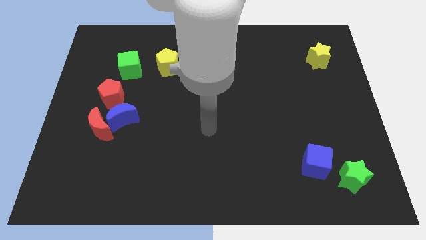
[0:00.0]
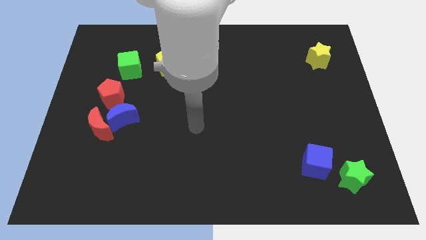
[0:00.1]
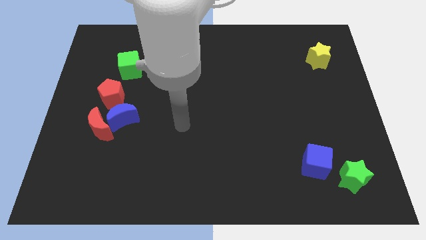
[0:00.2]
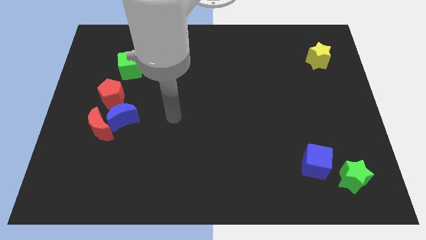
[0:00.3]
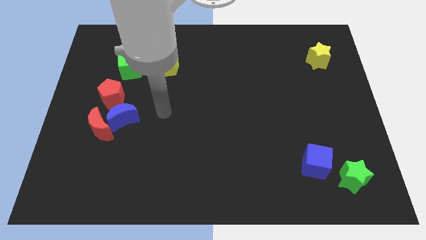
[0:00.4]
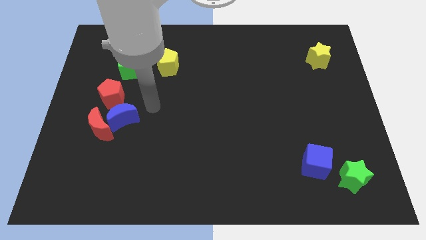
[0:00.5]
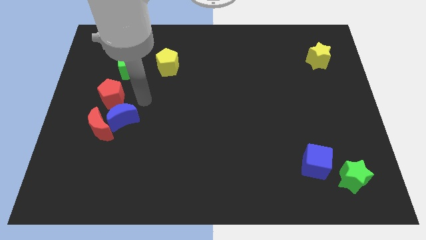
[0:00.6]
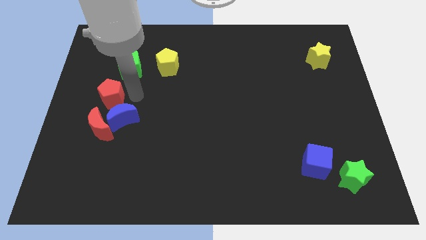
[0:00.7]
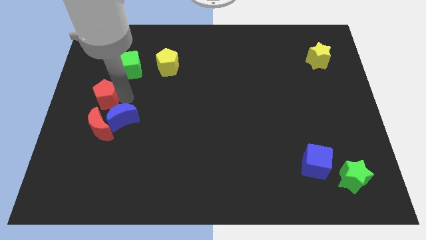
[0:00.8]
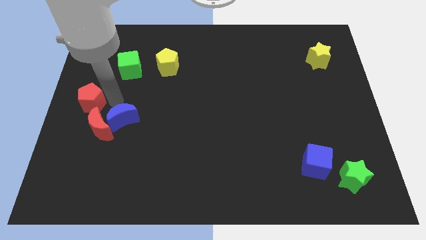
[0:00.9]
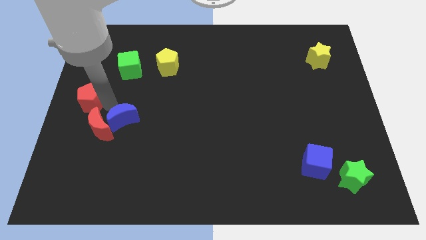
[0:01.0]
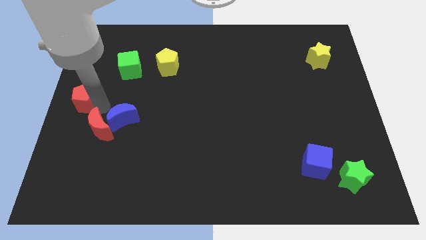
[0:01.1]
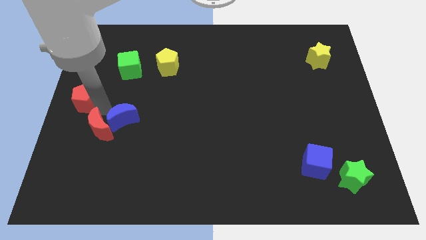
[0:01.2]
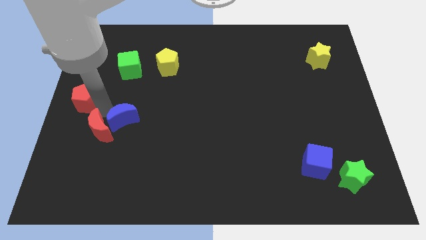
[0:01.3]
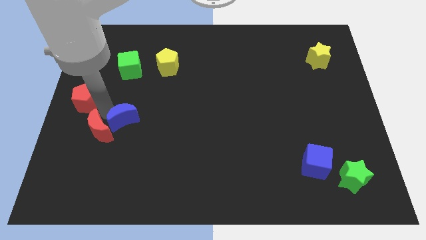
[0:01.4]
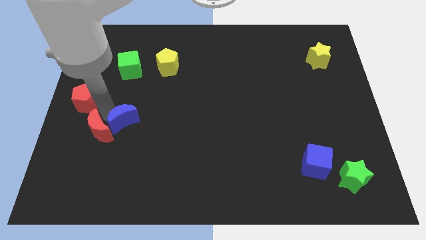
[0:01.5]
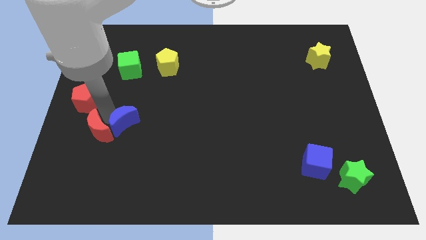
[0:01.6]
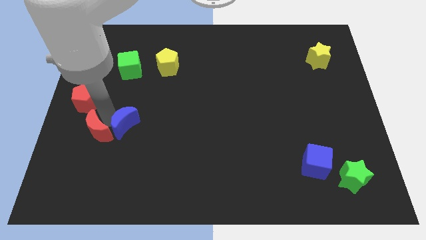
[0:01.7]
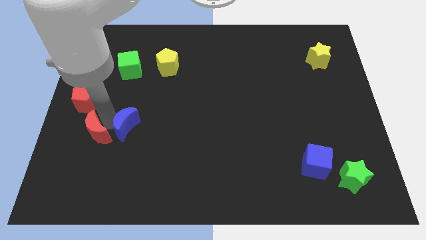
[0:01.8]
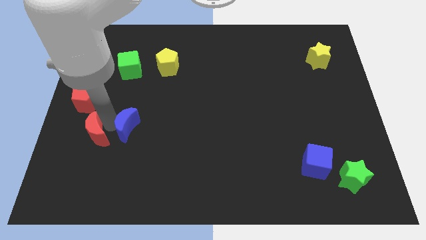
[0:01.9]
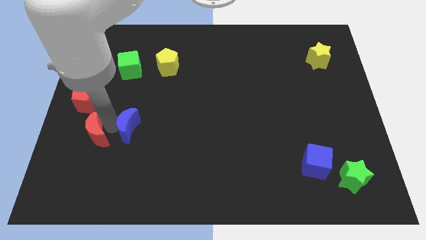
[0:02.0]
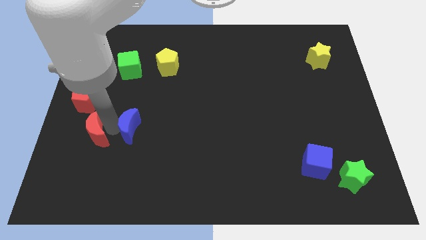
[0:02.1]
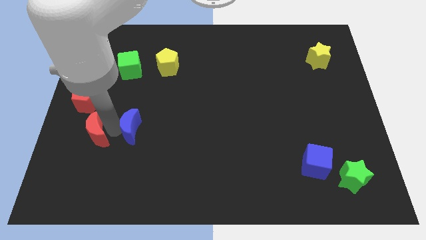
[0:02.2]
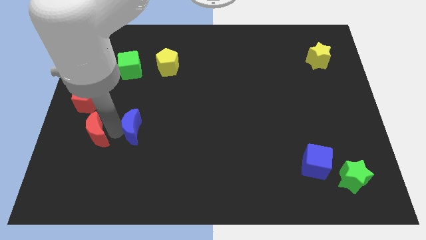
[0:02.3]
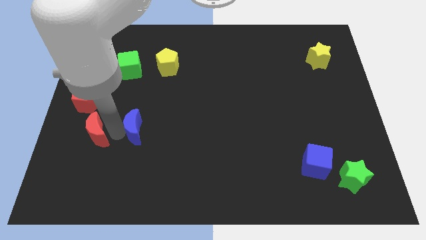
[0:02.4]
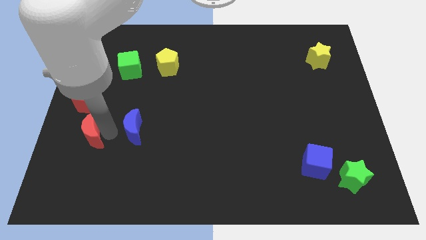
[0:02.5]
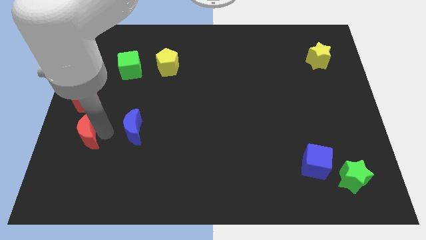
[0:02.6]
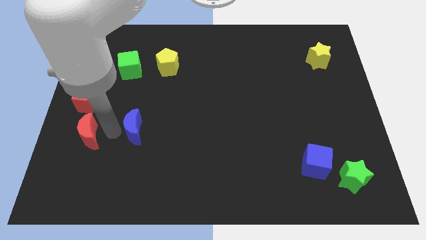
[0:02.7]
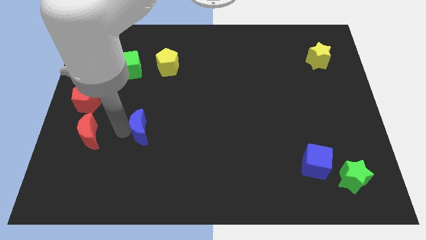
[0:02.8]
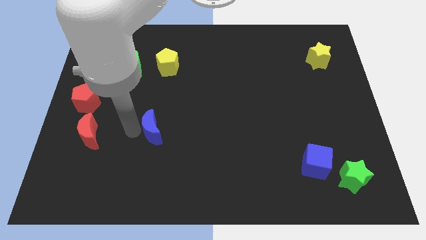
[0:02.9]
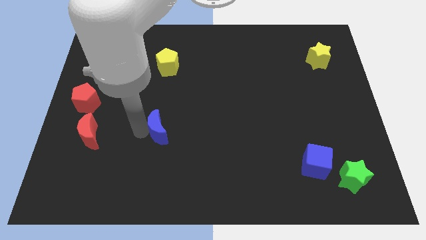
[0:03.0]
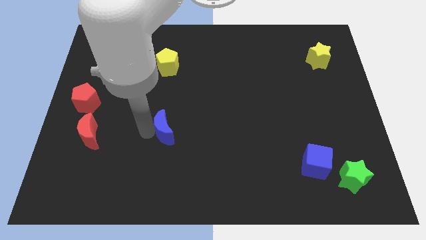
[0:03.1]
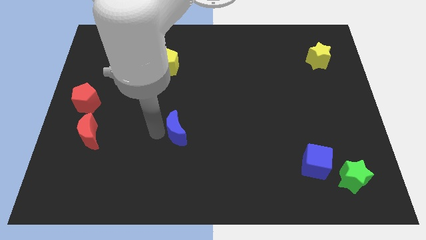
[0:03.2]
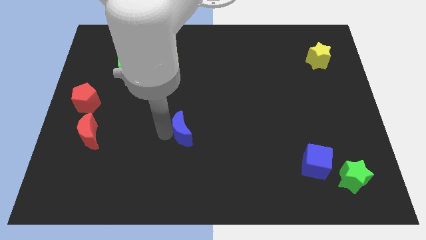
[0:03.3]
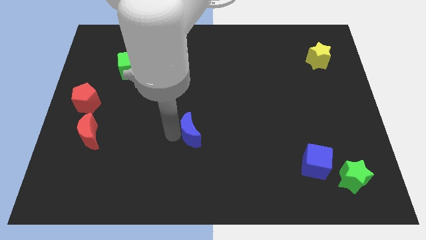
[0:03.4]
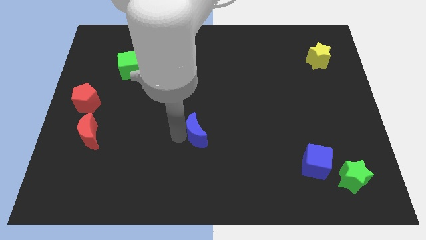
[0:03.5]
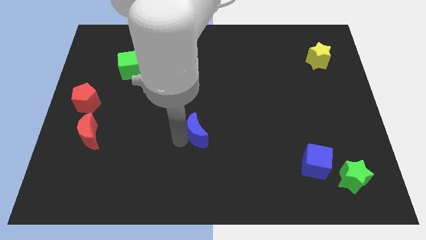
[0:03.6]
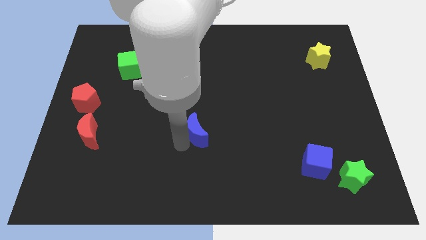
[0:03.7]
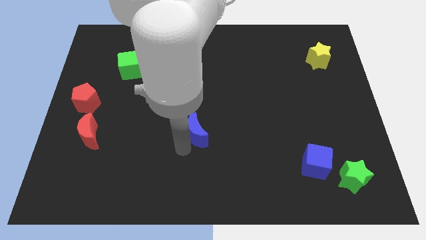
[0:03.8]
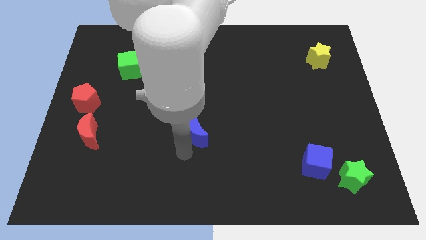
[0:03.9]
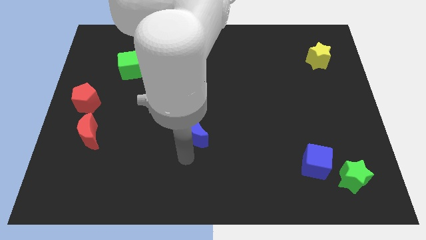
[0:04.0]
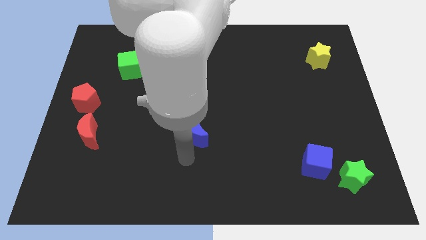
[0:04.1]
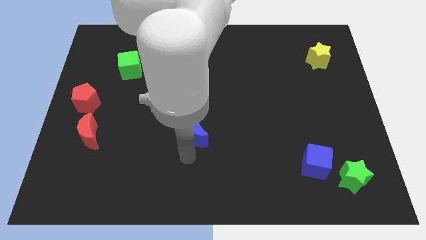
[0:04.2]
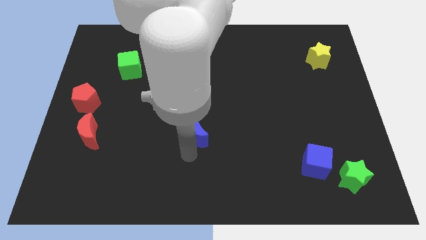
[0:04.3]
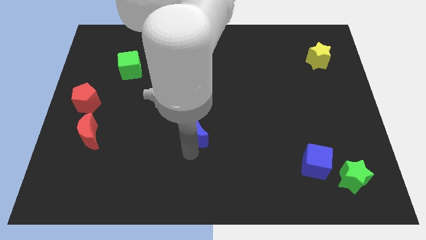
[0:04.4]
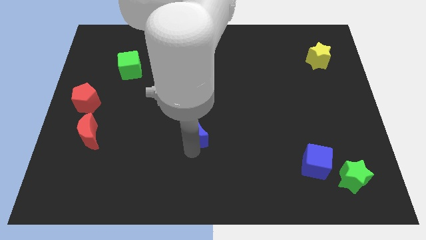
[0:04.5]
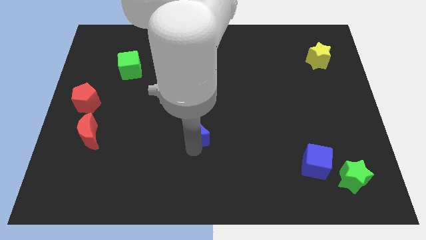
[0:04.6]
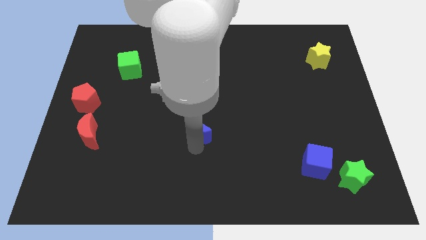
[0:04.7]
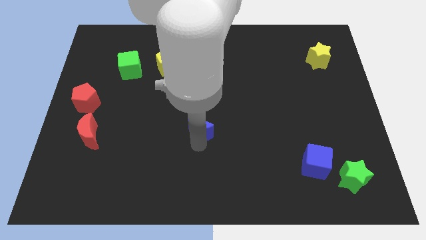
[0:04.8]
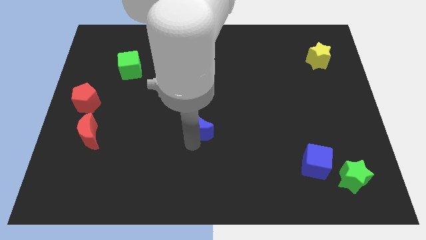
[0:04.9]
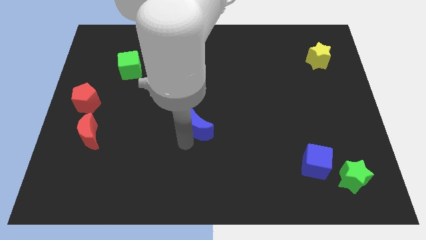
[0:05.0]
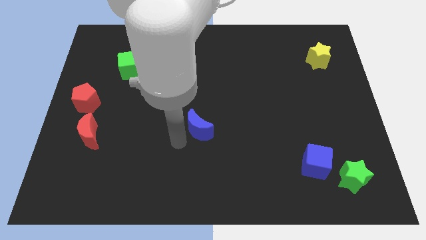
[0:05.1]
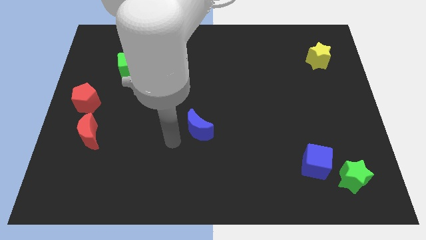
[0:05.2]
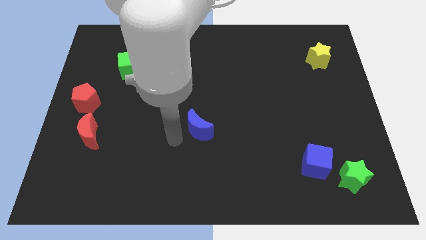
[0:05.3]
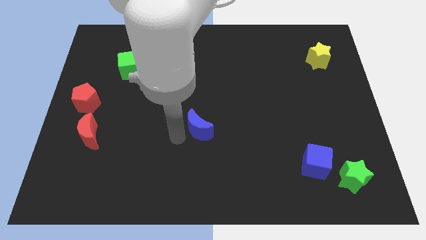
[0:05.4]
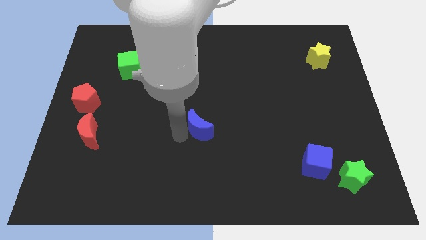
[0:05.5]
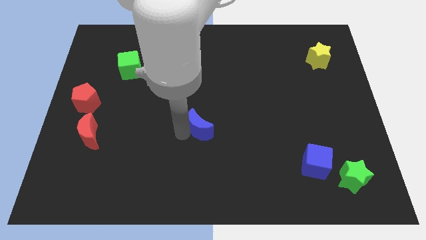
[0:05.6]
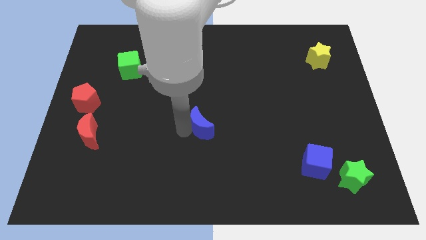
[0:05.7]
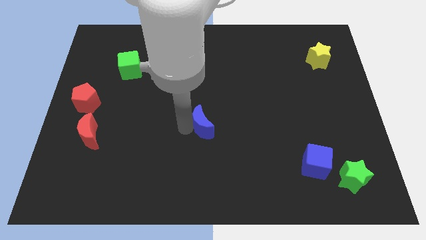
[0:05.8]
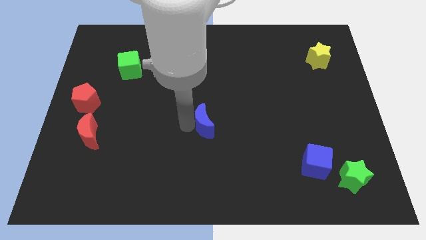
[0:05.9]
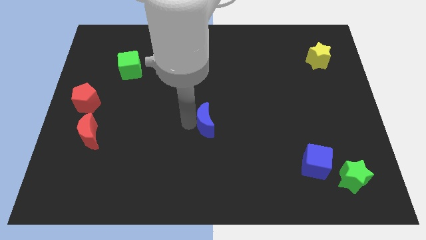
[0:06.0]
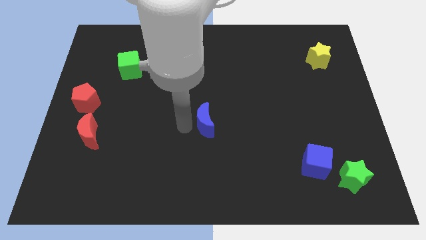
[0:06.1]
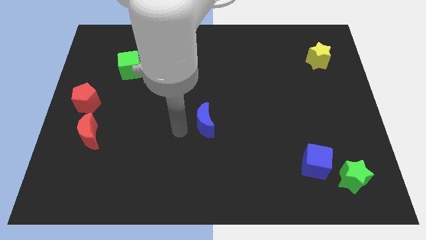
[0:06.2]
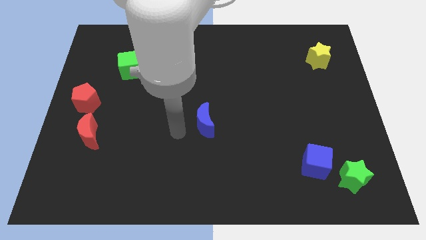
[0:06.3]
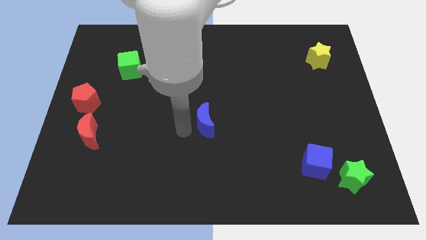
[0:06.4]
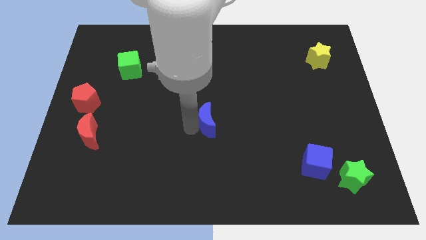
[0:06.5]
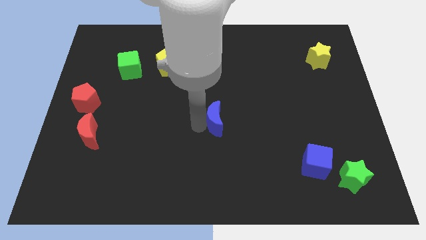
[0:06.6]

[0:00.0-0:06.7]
move the blue moon to the right

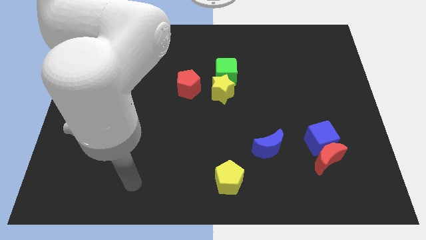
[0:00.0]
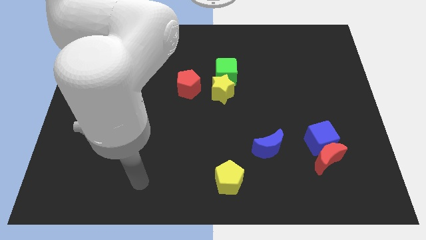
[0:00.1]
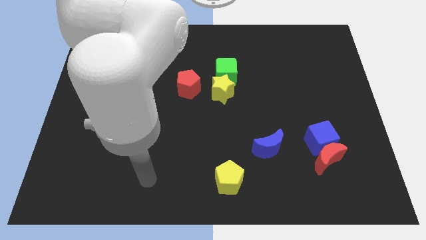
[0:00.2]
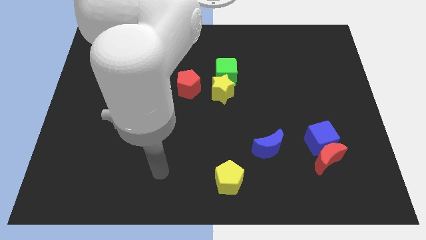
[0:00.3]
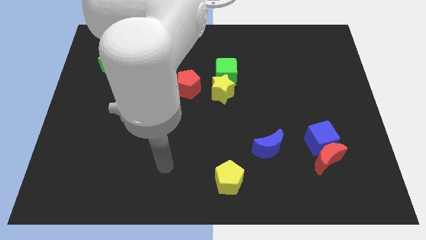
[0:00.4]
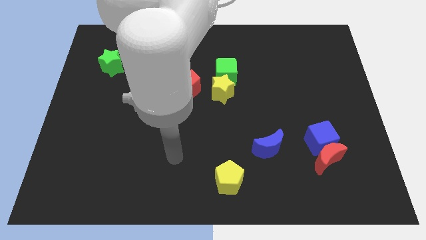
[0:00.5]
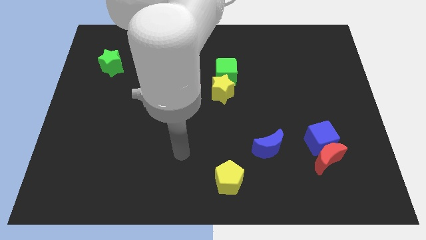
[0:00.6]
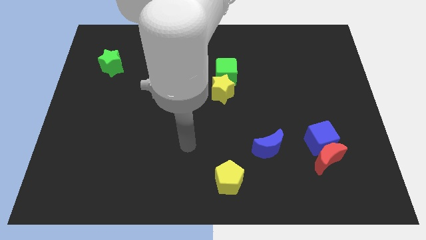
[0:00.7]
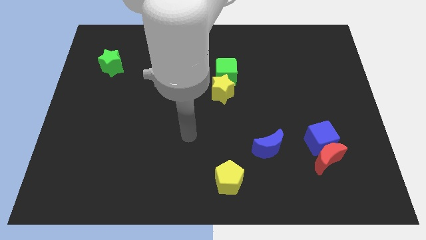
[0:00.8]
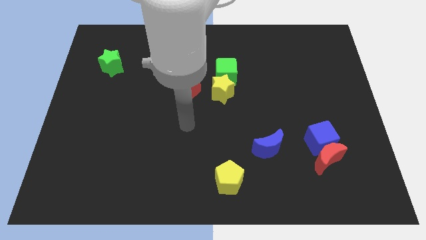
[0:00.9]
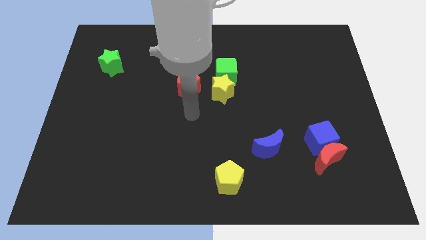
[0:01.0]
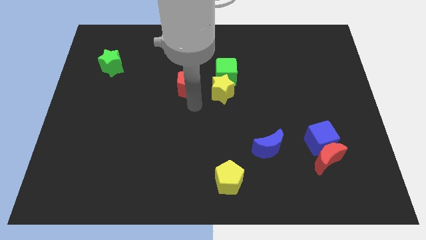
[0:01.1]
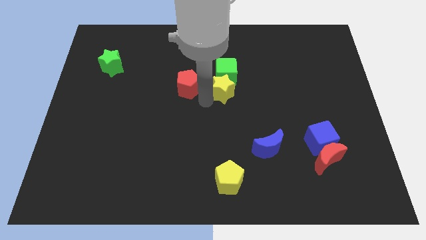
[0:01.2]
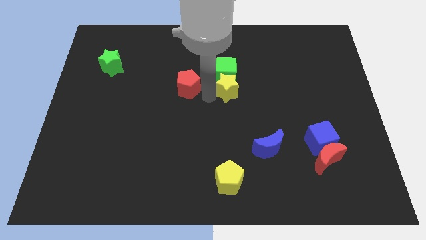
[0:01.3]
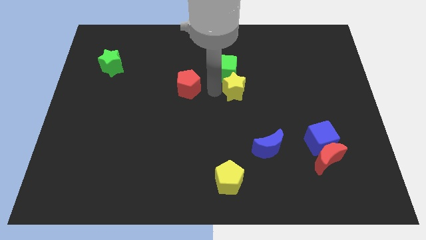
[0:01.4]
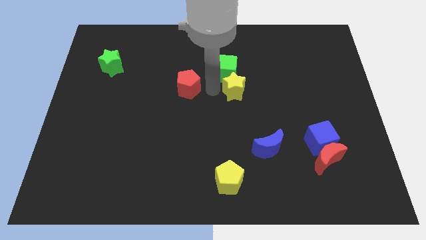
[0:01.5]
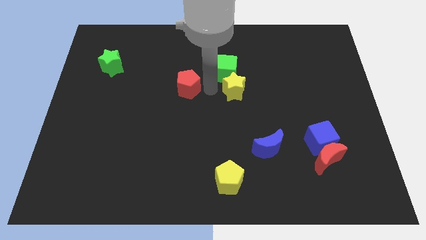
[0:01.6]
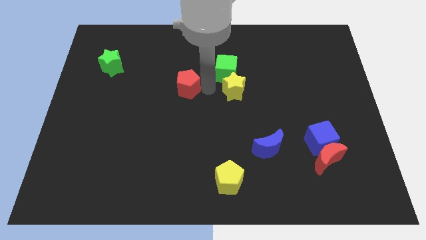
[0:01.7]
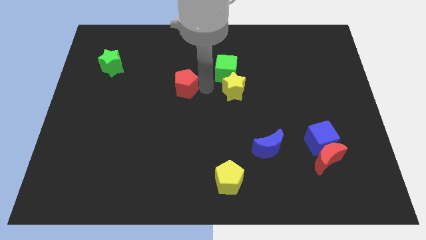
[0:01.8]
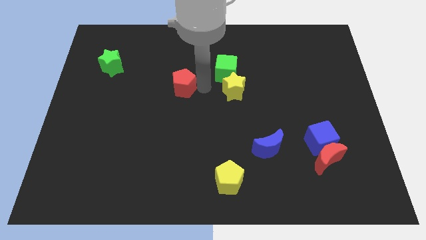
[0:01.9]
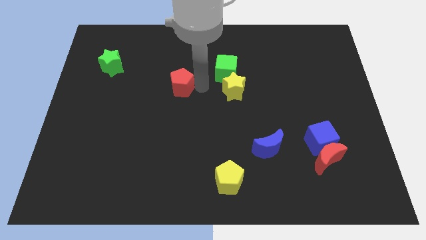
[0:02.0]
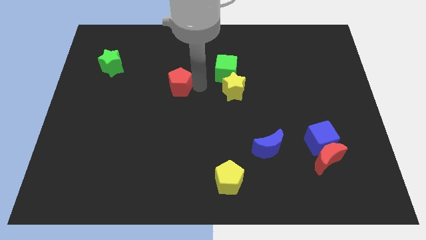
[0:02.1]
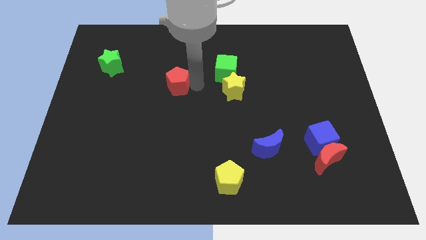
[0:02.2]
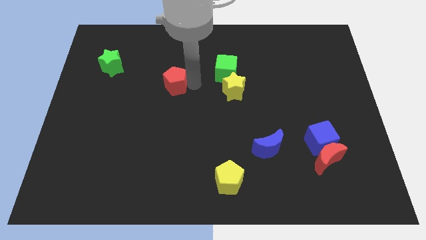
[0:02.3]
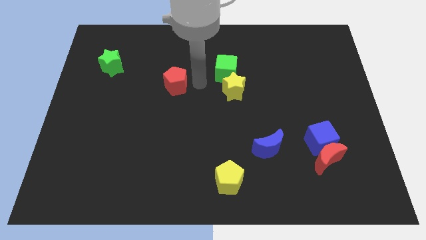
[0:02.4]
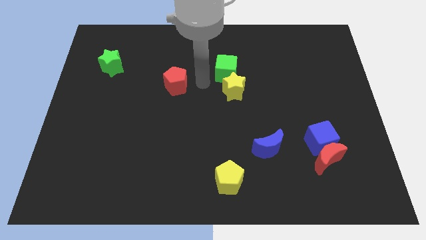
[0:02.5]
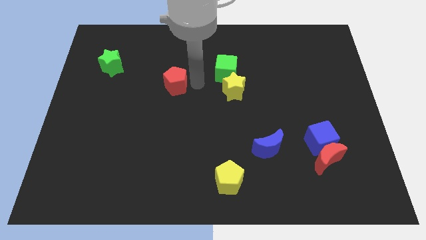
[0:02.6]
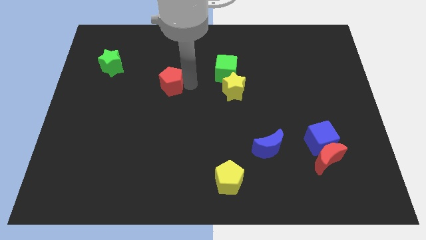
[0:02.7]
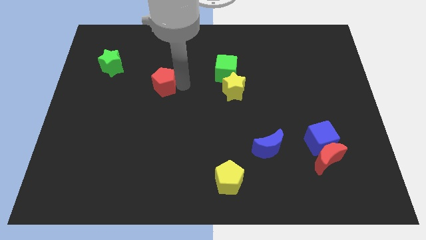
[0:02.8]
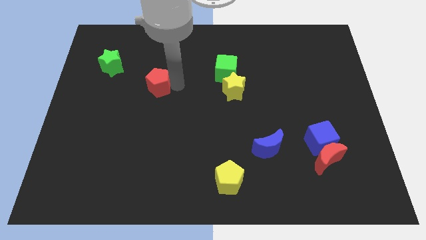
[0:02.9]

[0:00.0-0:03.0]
slightly push the red pentagon to the left
